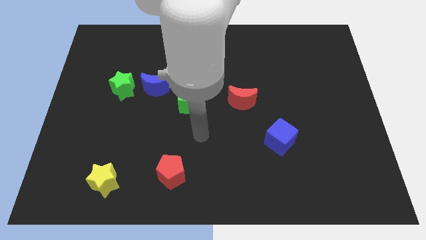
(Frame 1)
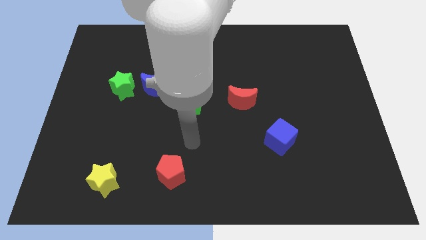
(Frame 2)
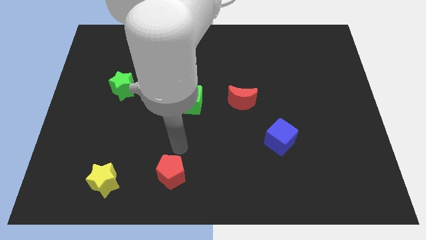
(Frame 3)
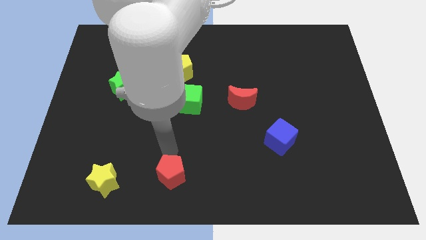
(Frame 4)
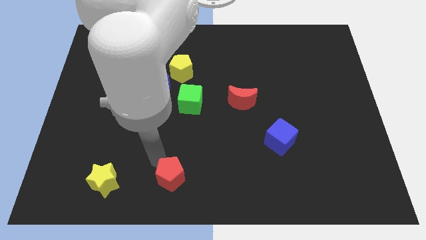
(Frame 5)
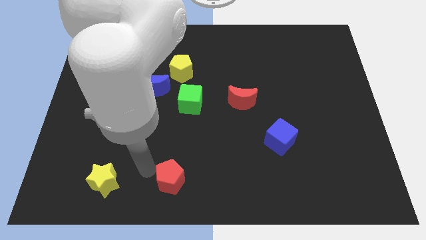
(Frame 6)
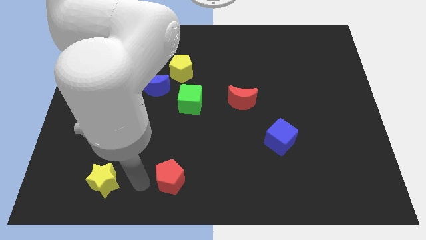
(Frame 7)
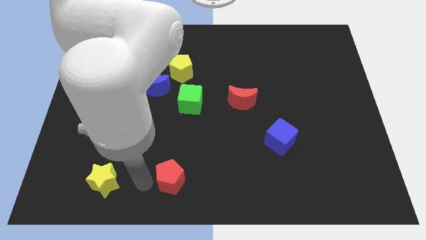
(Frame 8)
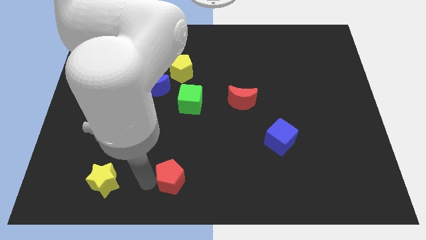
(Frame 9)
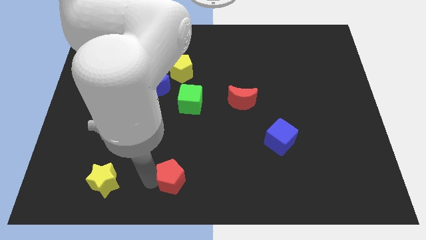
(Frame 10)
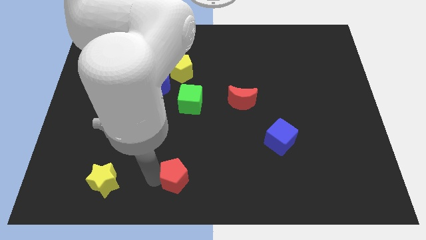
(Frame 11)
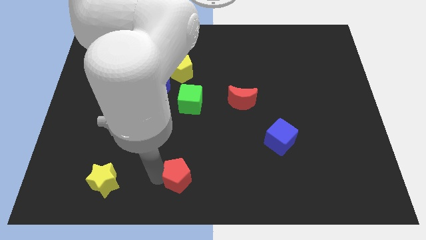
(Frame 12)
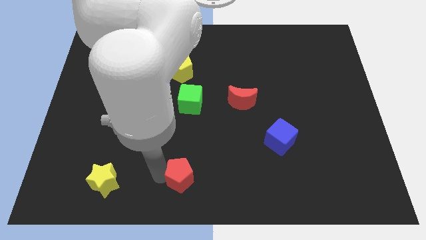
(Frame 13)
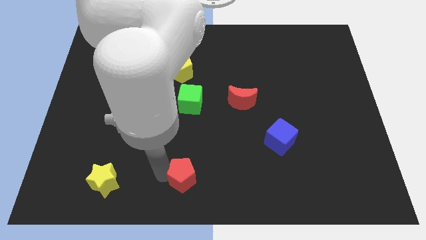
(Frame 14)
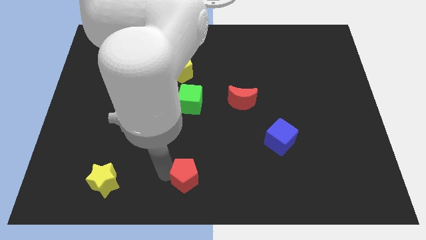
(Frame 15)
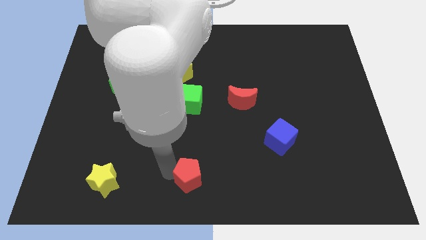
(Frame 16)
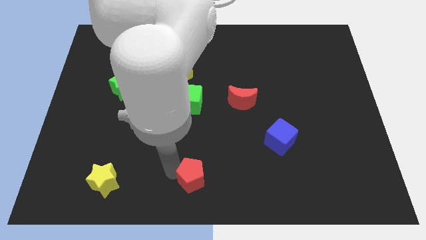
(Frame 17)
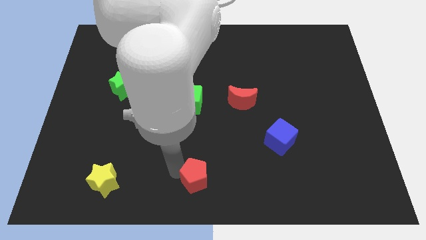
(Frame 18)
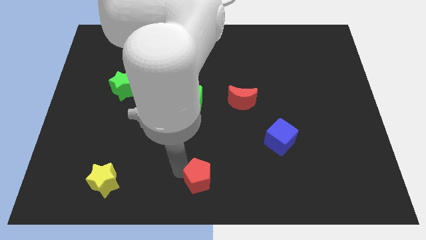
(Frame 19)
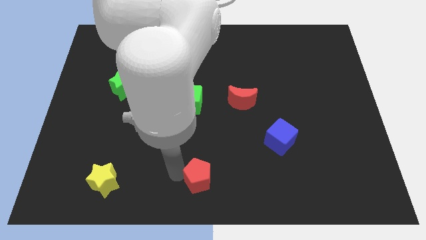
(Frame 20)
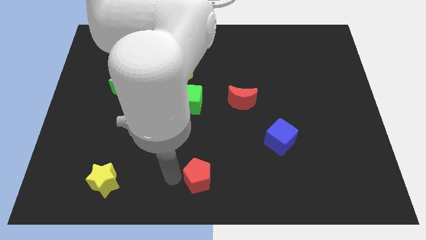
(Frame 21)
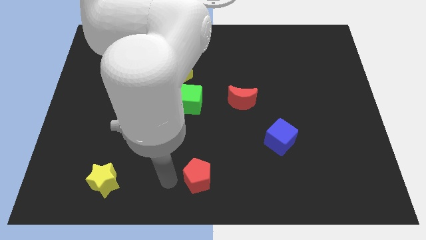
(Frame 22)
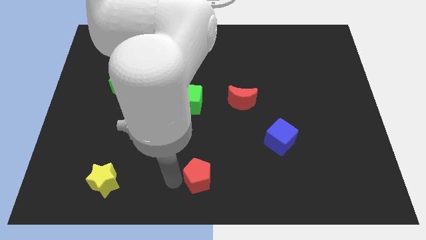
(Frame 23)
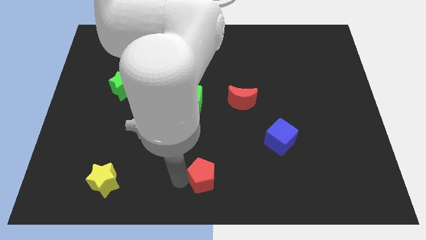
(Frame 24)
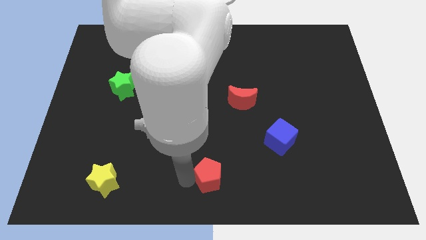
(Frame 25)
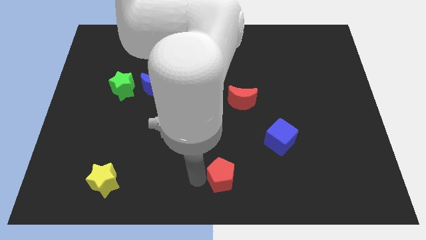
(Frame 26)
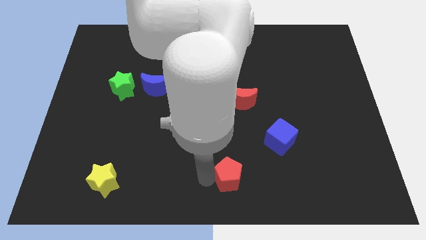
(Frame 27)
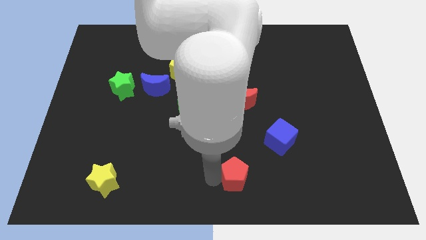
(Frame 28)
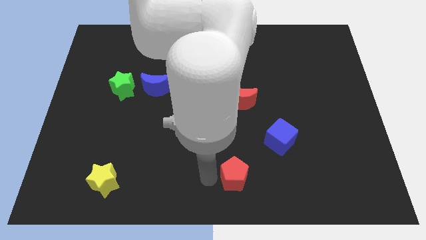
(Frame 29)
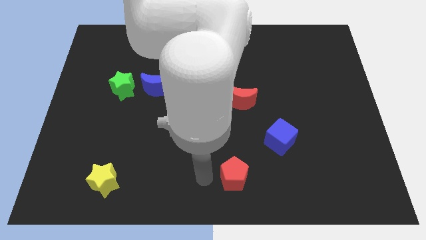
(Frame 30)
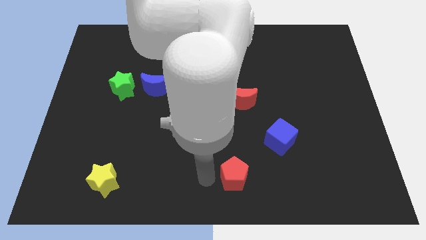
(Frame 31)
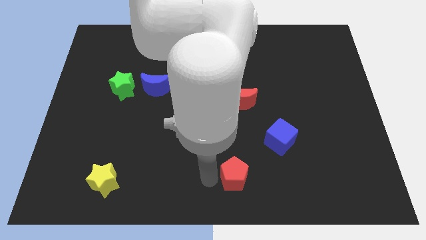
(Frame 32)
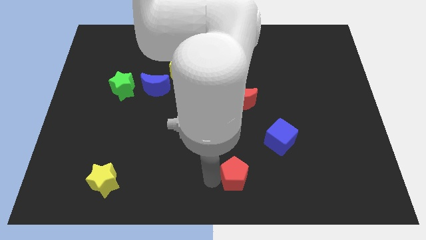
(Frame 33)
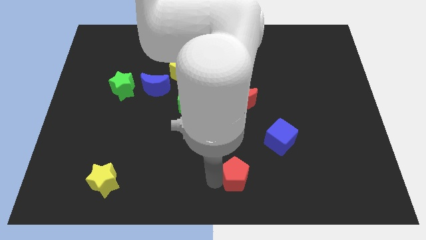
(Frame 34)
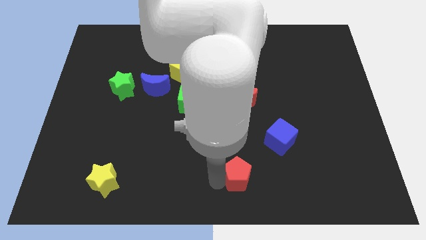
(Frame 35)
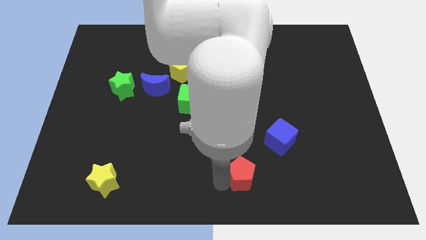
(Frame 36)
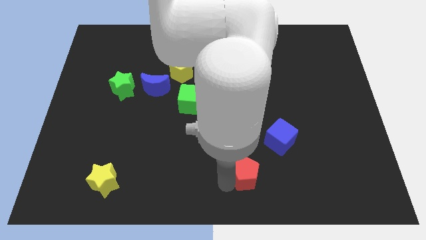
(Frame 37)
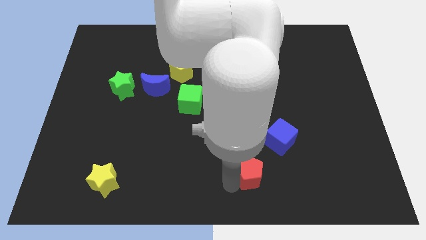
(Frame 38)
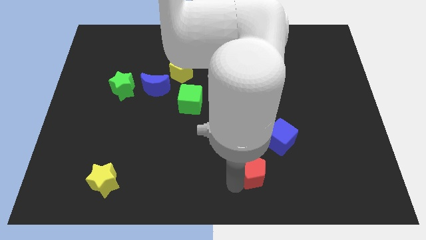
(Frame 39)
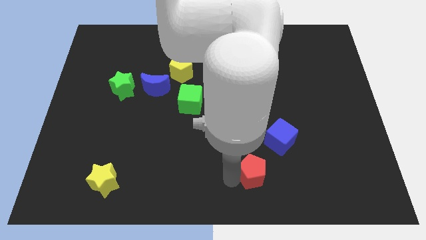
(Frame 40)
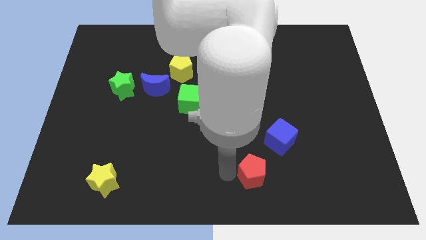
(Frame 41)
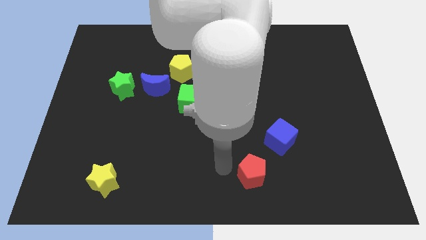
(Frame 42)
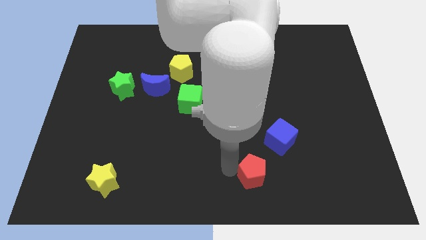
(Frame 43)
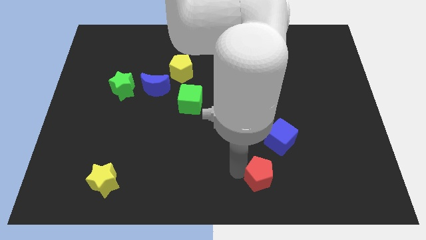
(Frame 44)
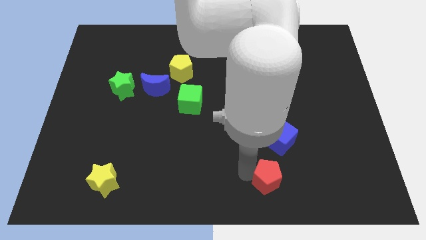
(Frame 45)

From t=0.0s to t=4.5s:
push the red pentagon to the bottom of the blue cube

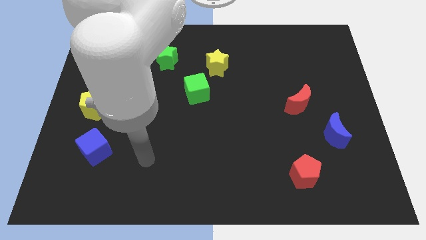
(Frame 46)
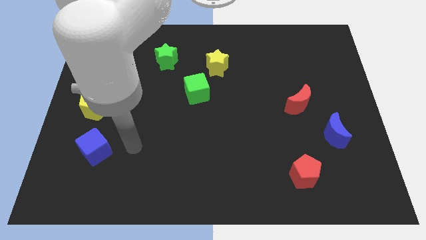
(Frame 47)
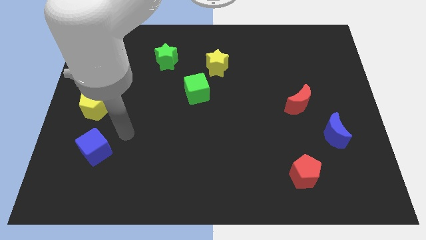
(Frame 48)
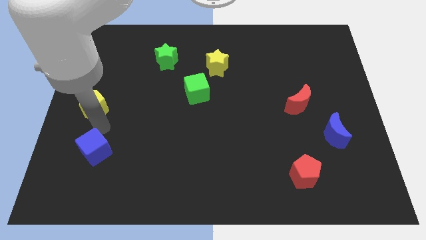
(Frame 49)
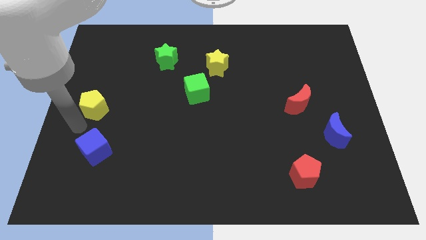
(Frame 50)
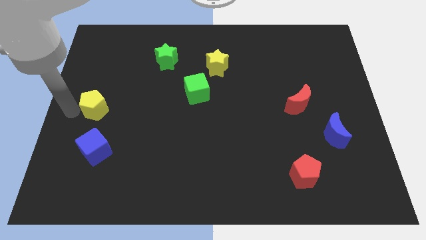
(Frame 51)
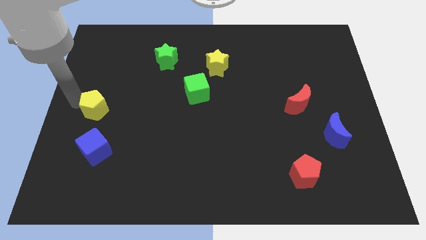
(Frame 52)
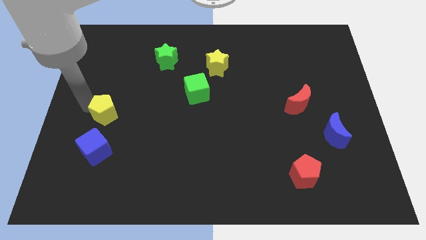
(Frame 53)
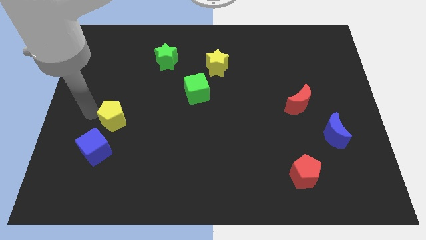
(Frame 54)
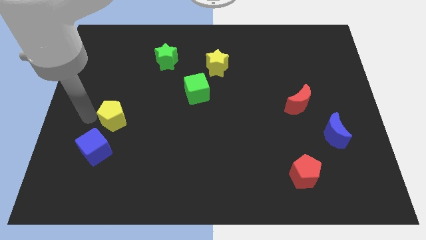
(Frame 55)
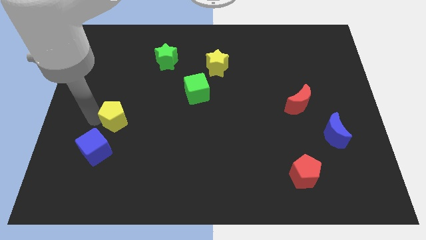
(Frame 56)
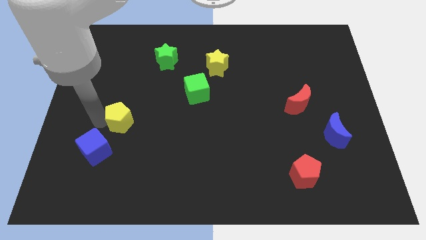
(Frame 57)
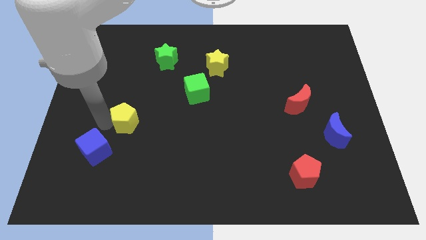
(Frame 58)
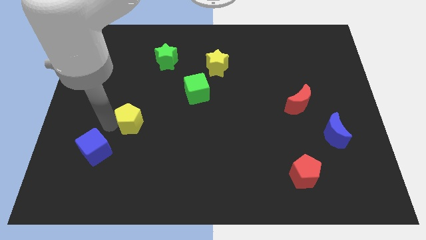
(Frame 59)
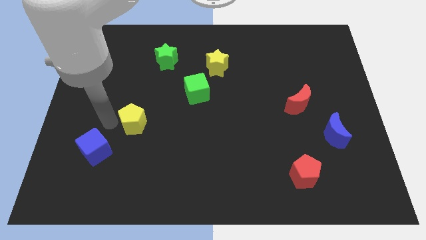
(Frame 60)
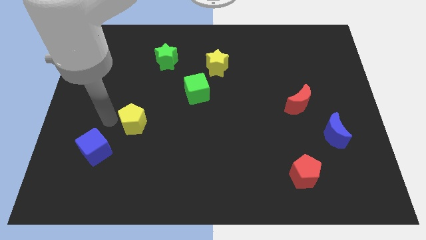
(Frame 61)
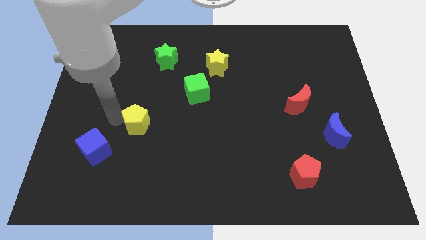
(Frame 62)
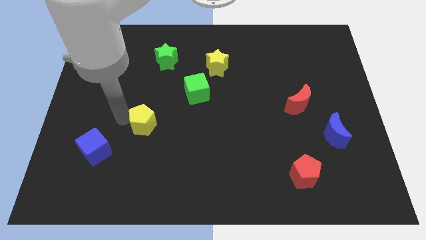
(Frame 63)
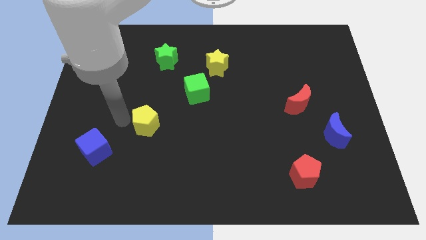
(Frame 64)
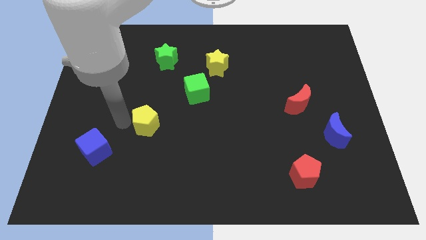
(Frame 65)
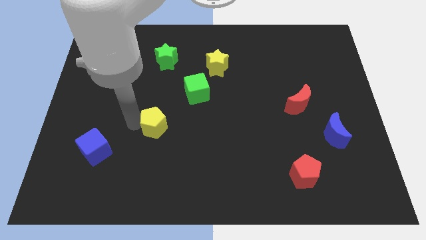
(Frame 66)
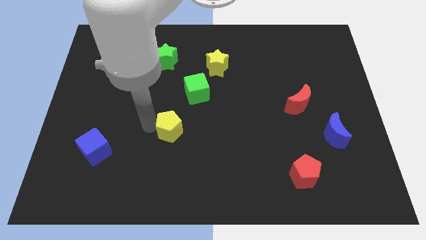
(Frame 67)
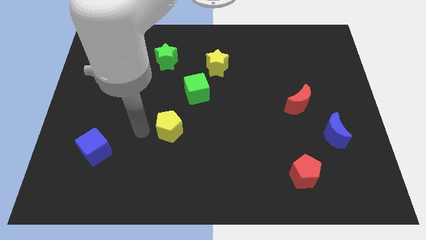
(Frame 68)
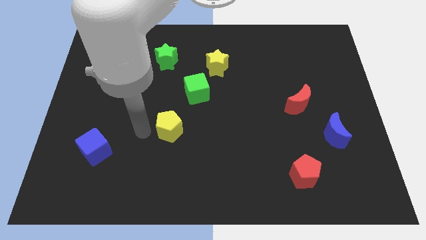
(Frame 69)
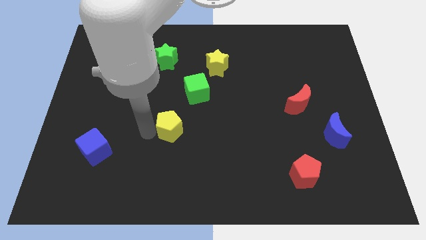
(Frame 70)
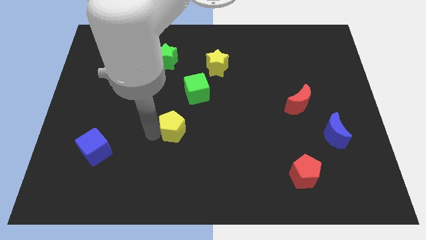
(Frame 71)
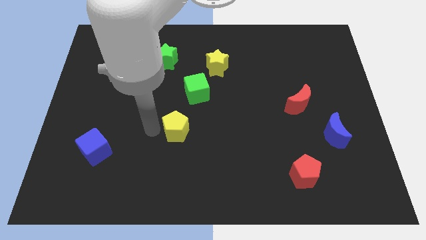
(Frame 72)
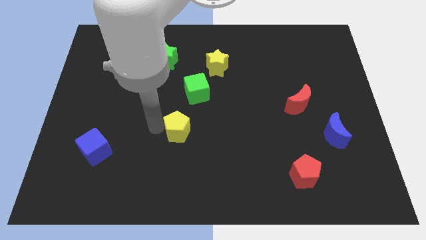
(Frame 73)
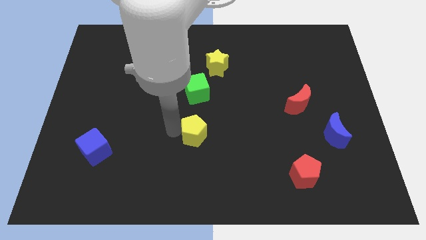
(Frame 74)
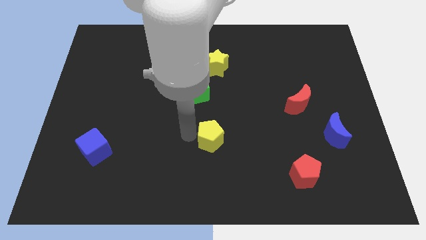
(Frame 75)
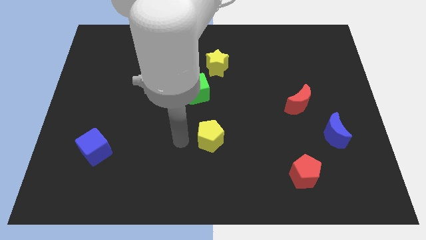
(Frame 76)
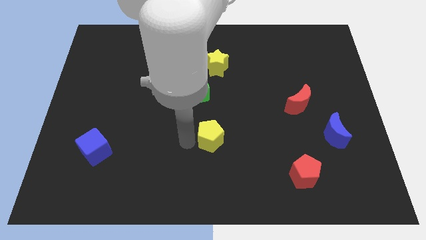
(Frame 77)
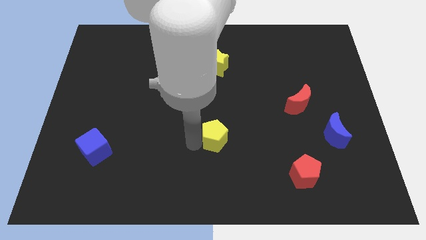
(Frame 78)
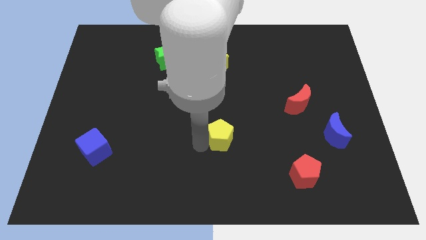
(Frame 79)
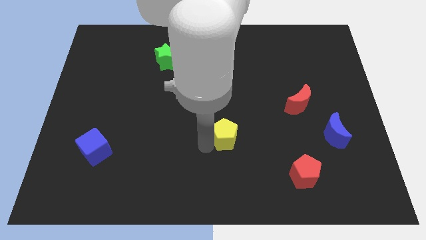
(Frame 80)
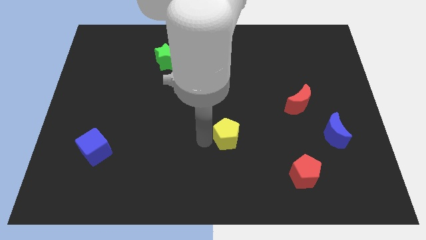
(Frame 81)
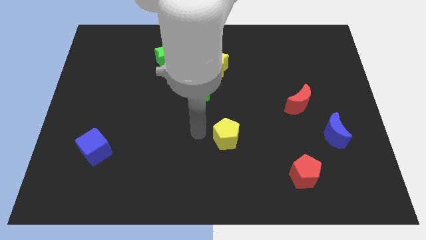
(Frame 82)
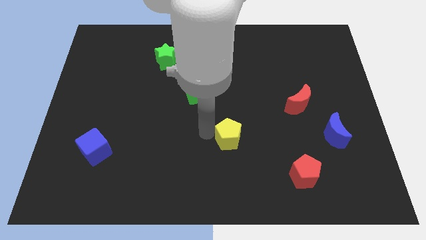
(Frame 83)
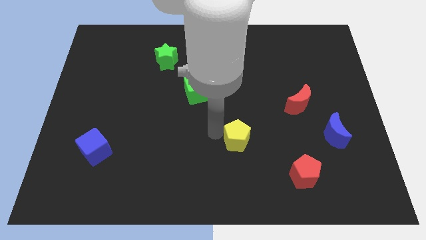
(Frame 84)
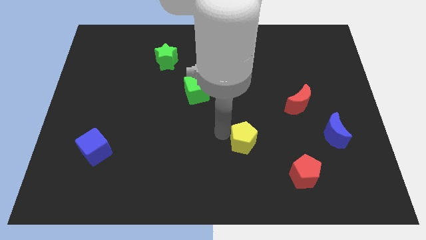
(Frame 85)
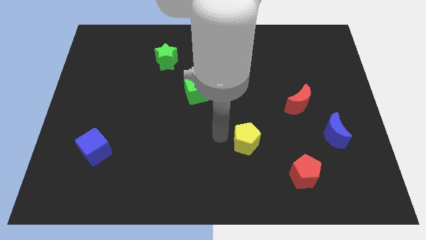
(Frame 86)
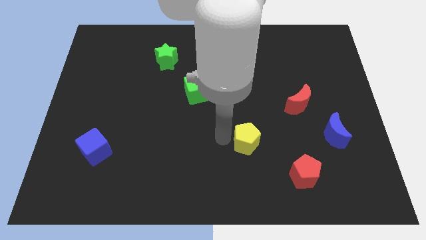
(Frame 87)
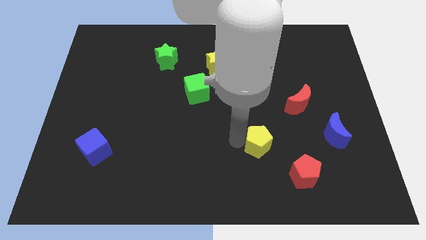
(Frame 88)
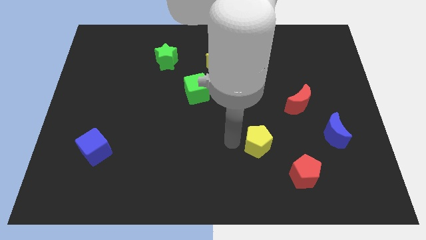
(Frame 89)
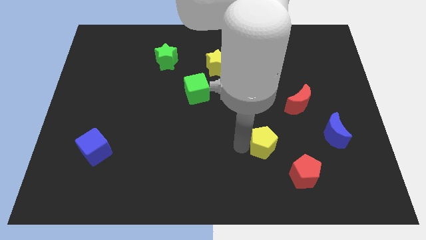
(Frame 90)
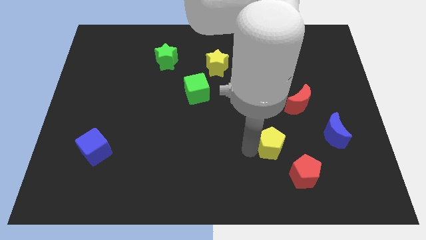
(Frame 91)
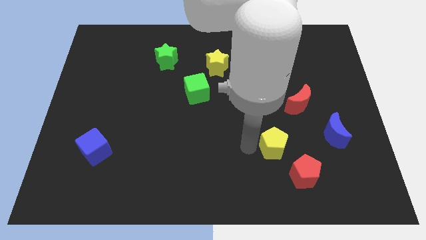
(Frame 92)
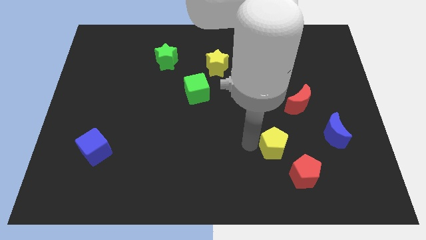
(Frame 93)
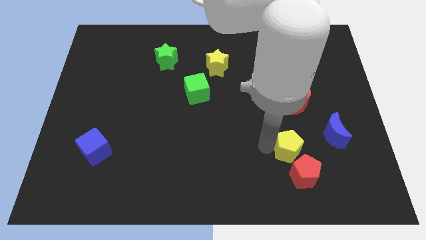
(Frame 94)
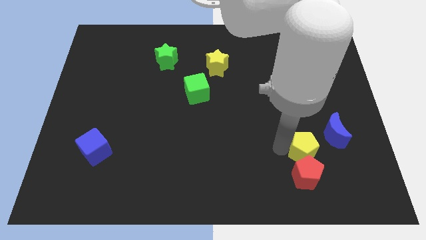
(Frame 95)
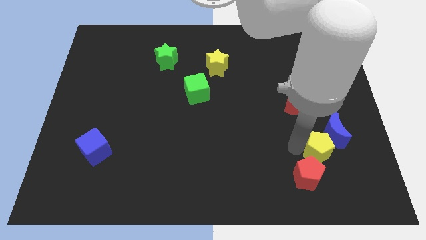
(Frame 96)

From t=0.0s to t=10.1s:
move the yellow pentagon below the blue moon
